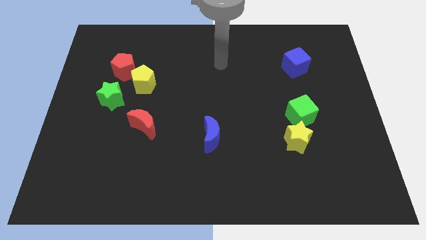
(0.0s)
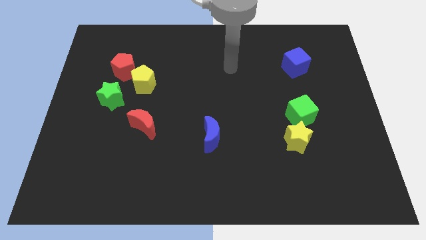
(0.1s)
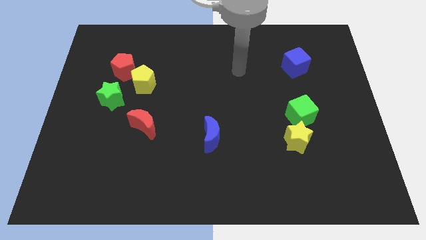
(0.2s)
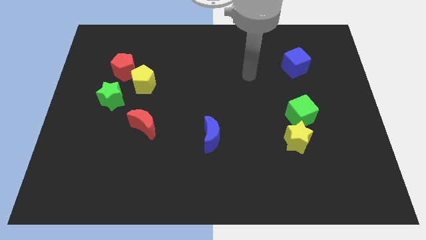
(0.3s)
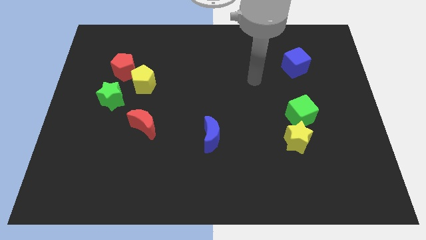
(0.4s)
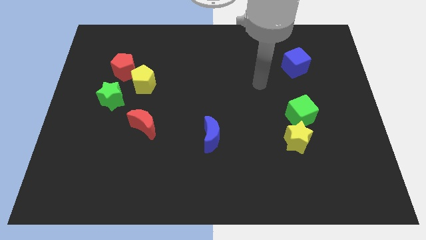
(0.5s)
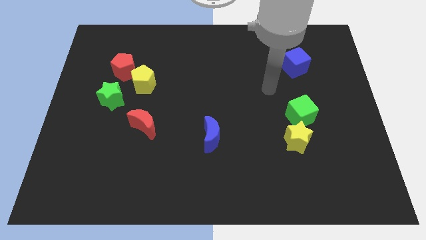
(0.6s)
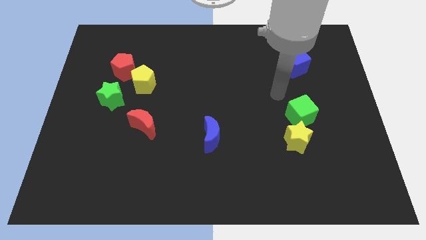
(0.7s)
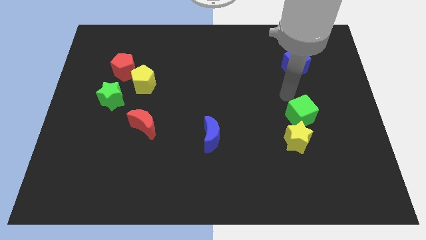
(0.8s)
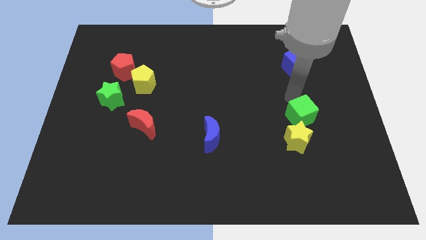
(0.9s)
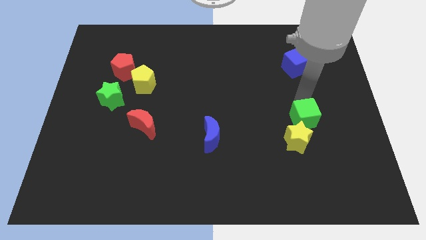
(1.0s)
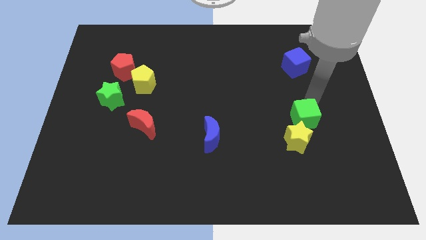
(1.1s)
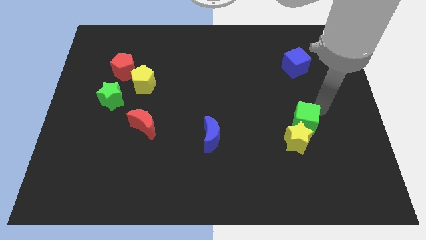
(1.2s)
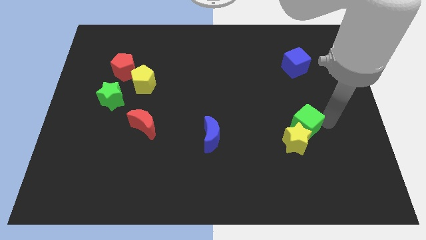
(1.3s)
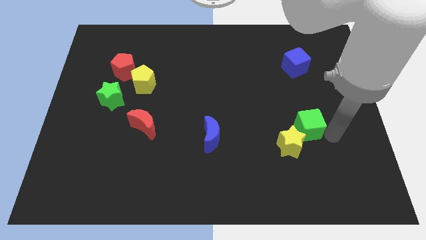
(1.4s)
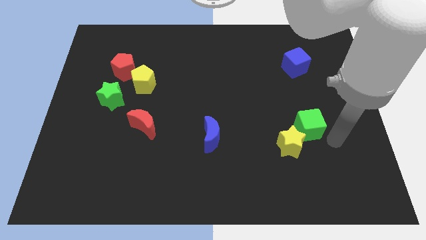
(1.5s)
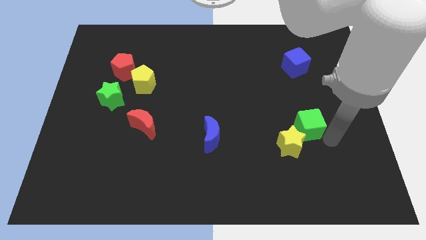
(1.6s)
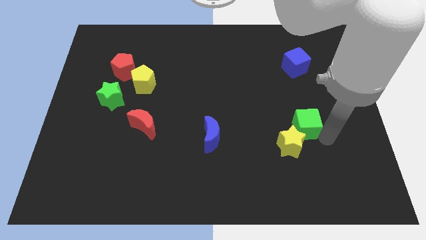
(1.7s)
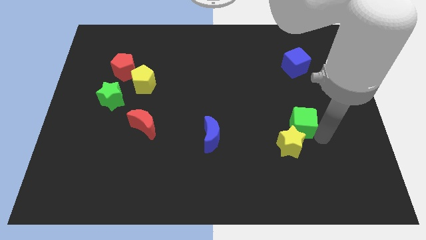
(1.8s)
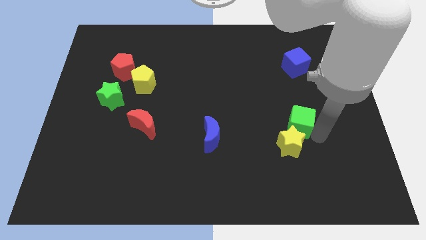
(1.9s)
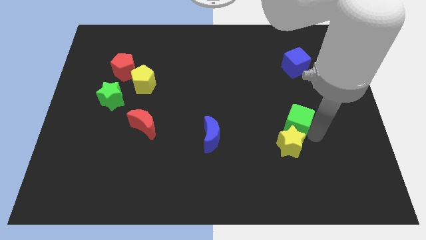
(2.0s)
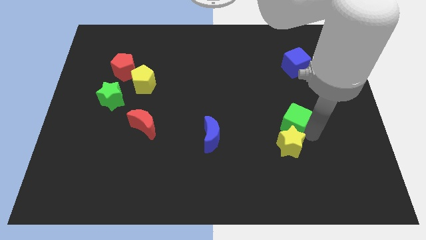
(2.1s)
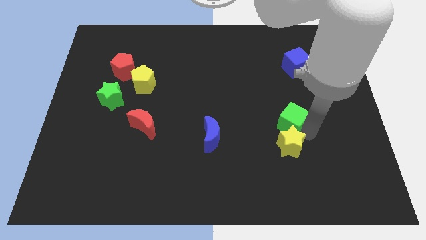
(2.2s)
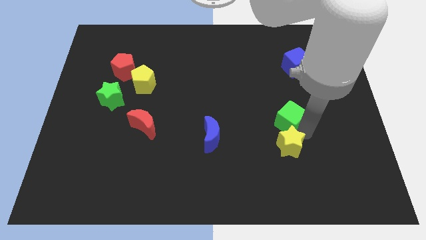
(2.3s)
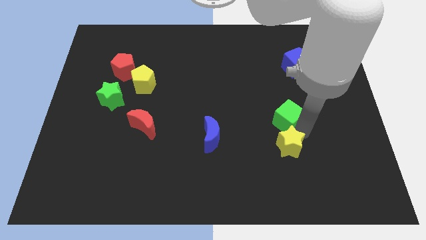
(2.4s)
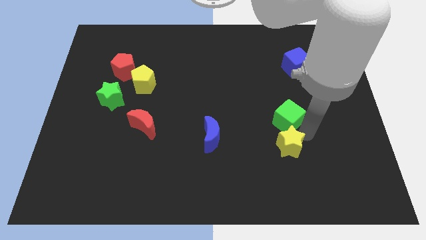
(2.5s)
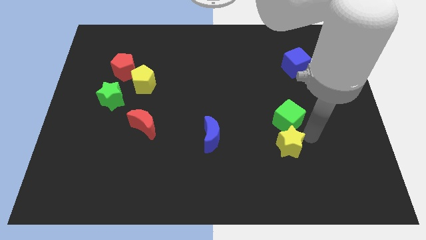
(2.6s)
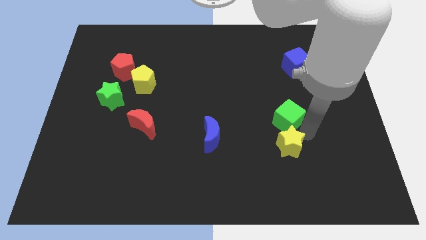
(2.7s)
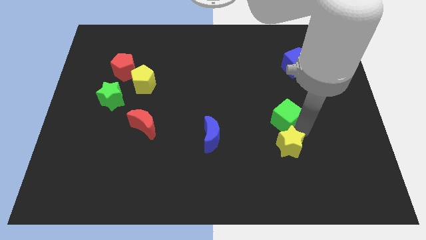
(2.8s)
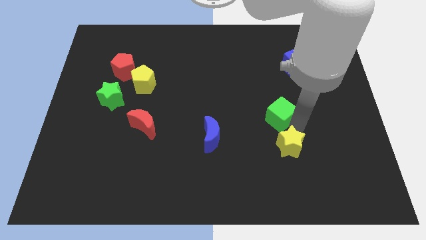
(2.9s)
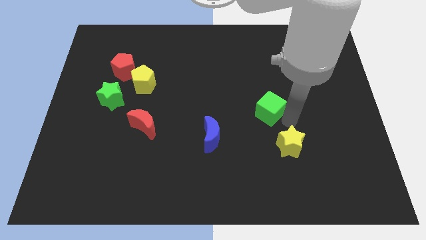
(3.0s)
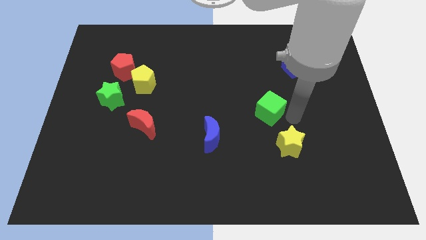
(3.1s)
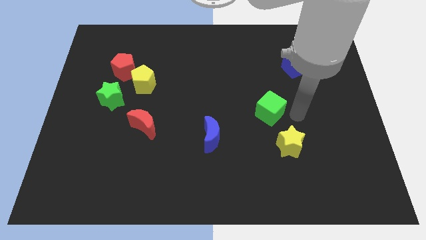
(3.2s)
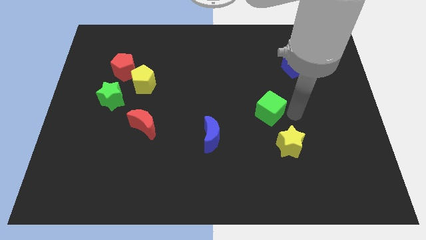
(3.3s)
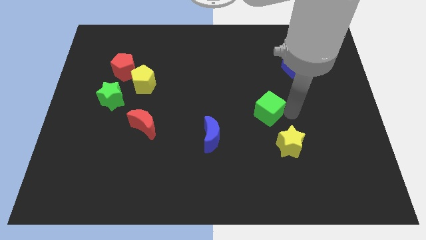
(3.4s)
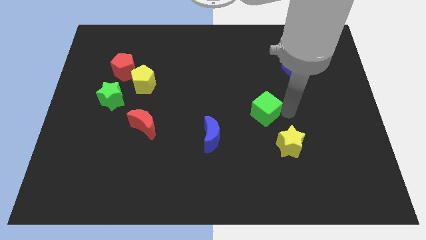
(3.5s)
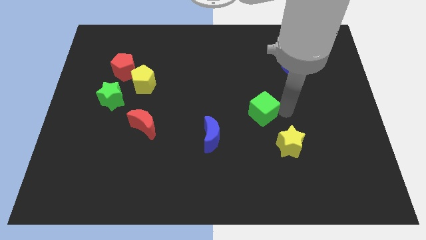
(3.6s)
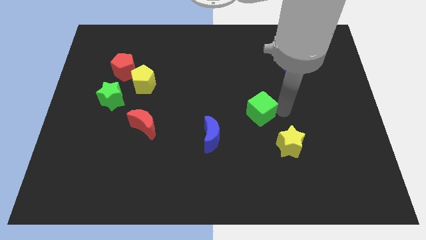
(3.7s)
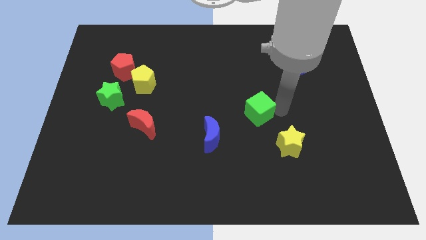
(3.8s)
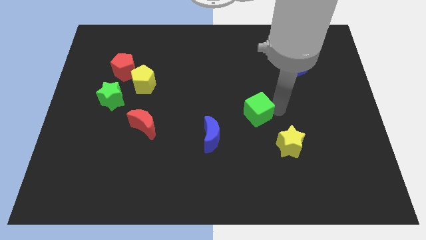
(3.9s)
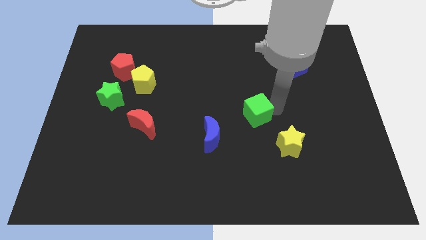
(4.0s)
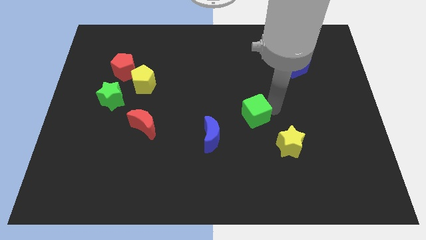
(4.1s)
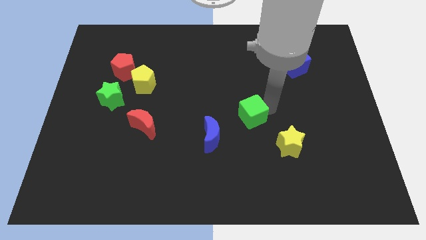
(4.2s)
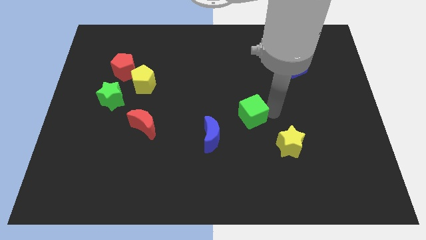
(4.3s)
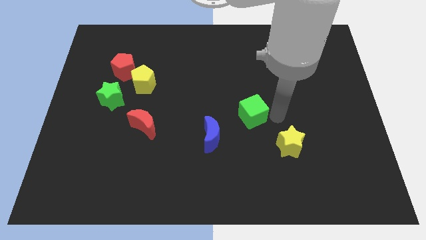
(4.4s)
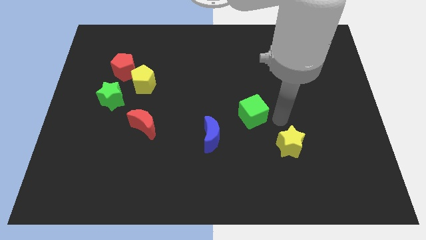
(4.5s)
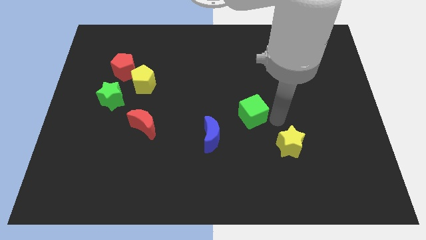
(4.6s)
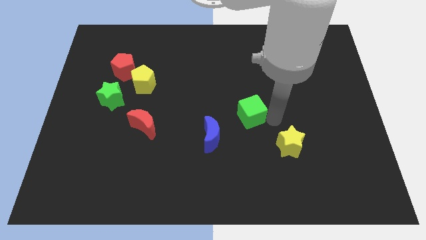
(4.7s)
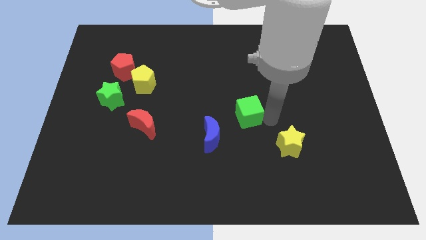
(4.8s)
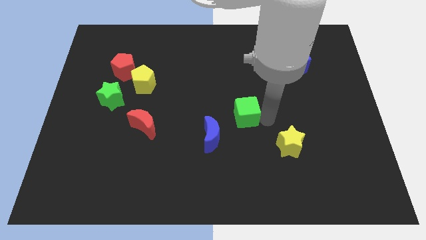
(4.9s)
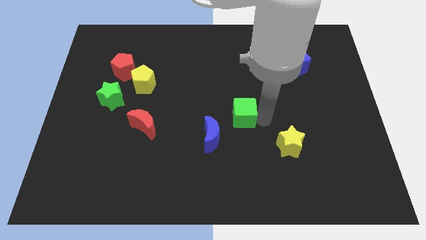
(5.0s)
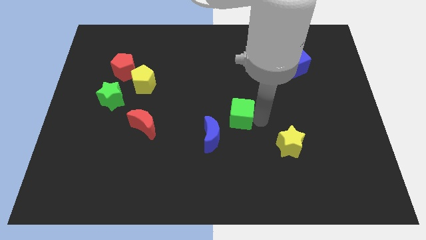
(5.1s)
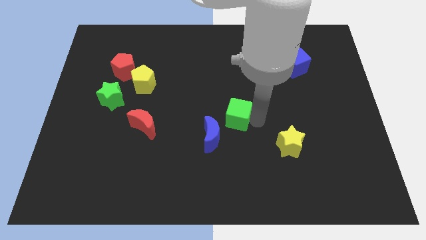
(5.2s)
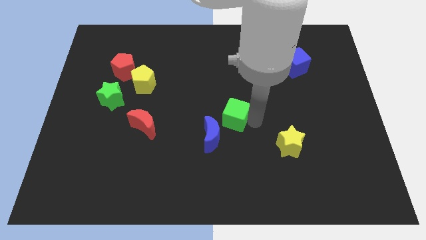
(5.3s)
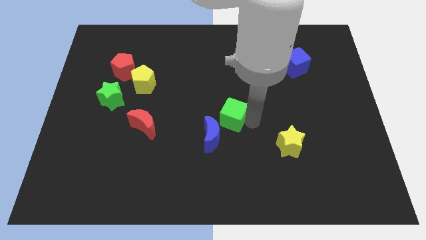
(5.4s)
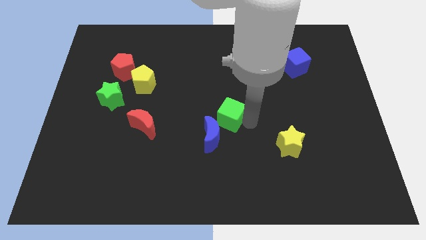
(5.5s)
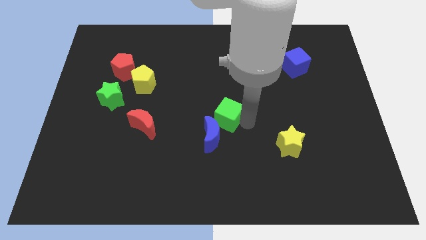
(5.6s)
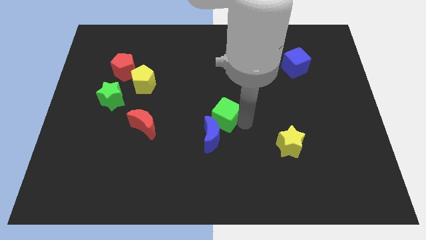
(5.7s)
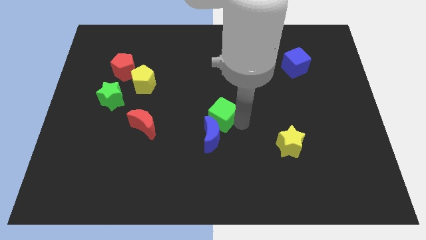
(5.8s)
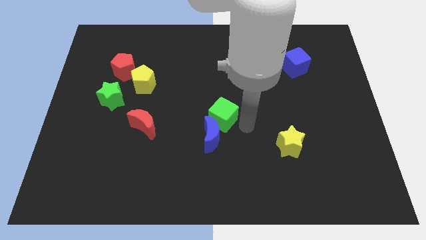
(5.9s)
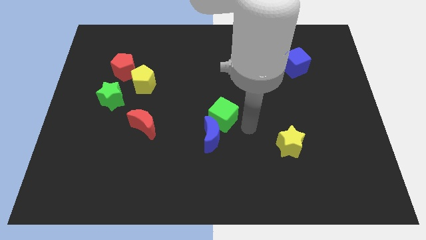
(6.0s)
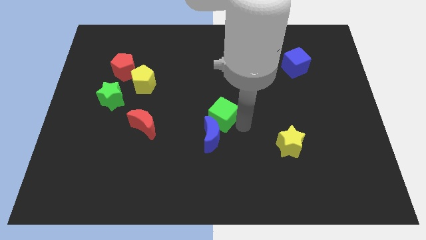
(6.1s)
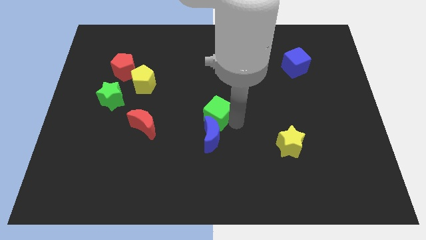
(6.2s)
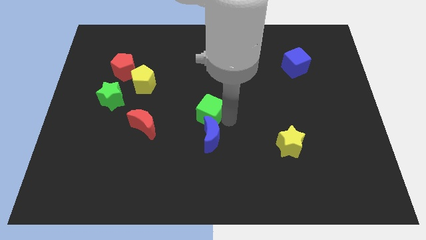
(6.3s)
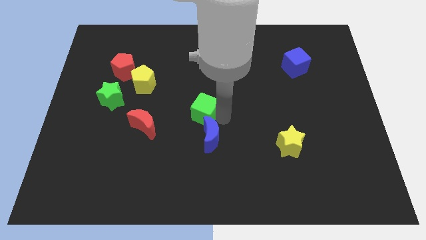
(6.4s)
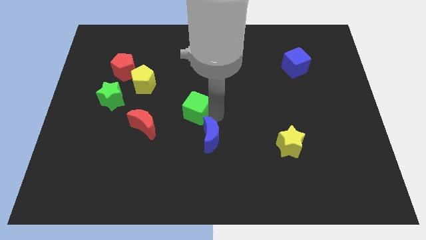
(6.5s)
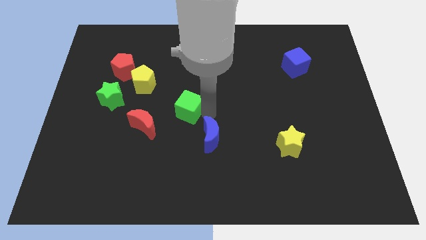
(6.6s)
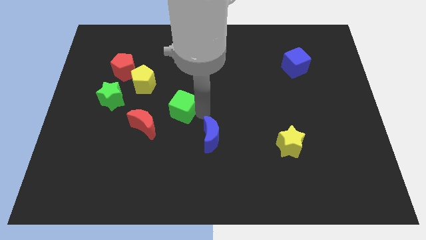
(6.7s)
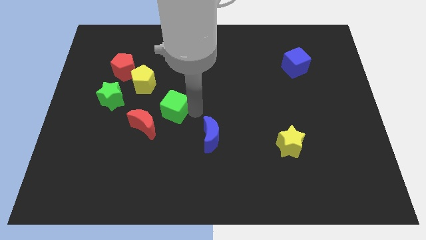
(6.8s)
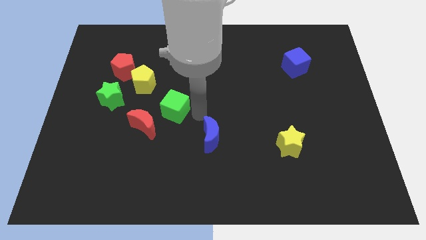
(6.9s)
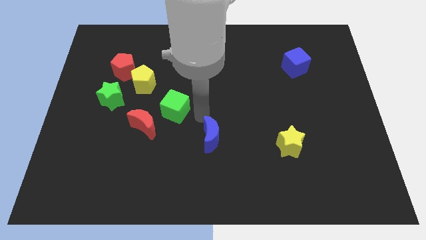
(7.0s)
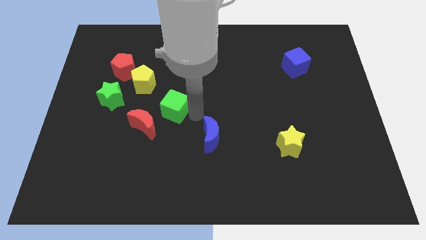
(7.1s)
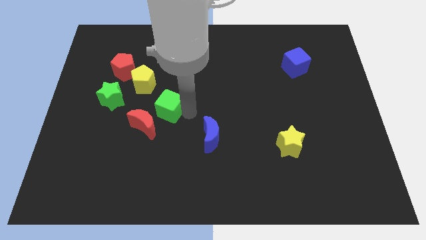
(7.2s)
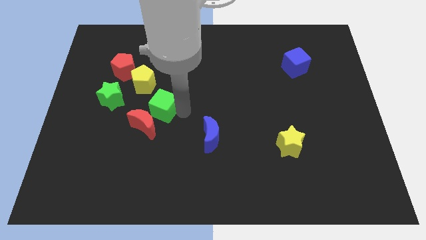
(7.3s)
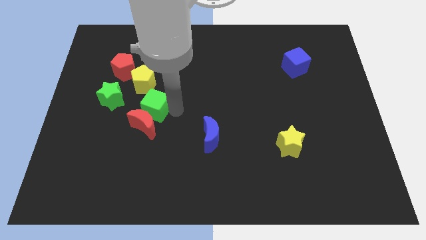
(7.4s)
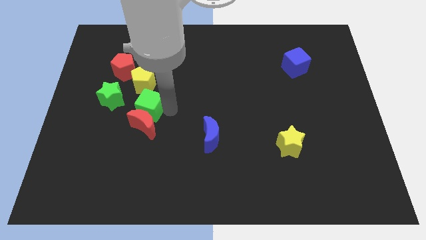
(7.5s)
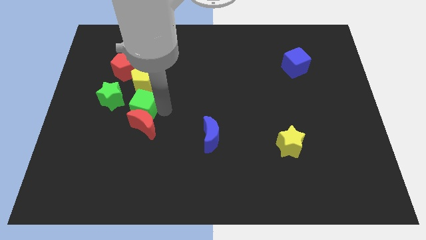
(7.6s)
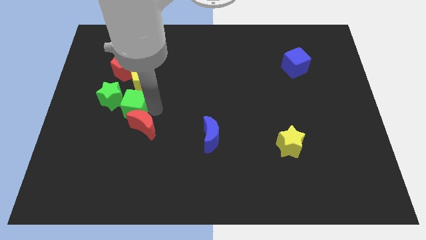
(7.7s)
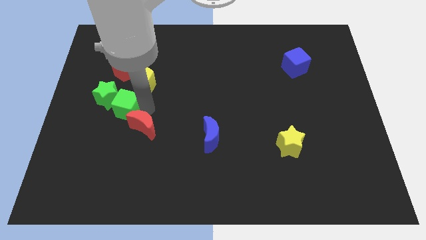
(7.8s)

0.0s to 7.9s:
push the green cube close to the green star
